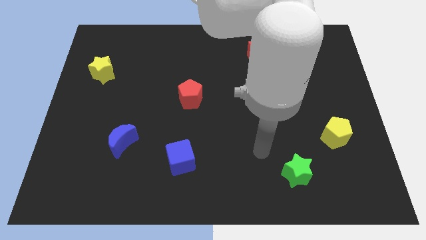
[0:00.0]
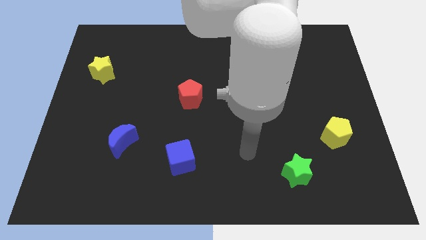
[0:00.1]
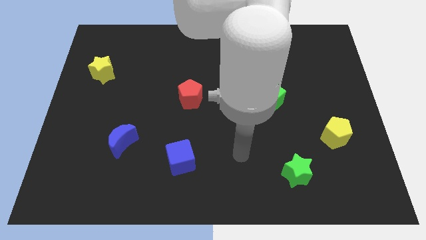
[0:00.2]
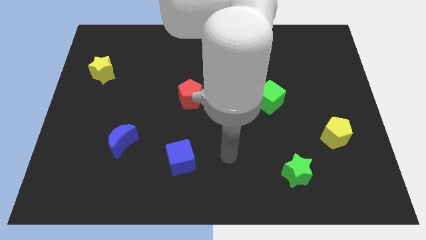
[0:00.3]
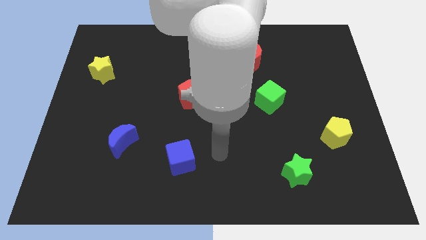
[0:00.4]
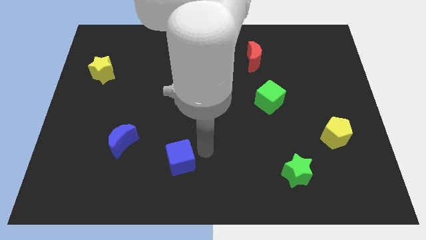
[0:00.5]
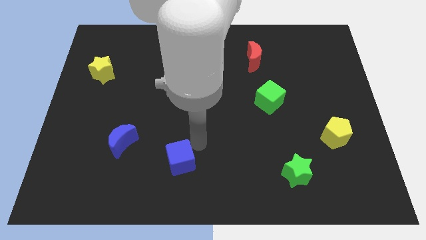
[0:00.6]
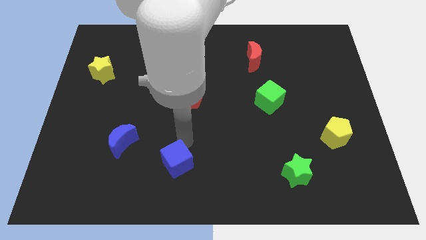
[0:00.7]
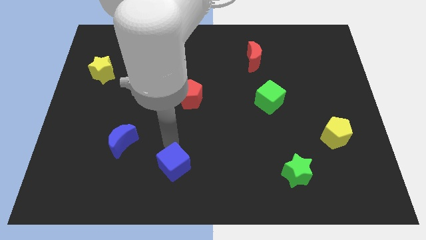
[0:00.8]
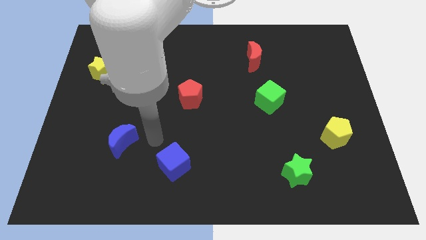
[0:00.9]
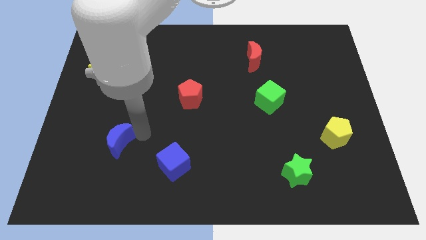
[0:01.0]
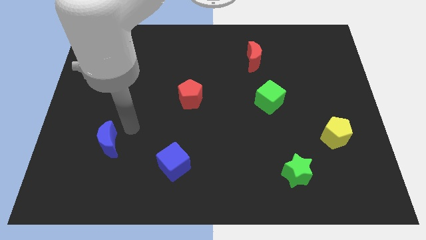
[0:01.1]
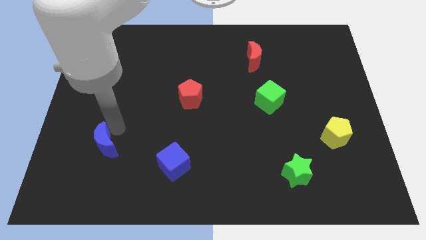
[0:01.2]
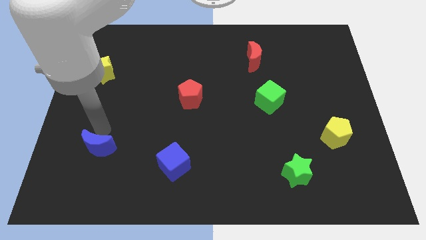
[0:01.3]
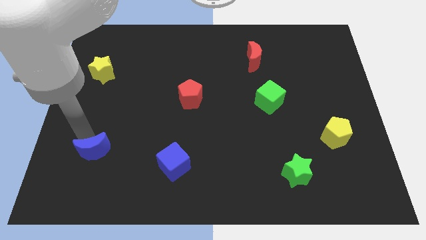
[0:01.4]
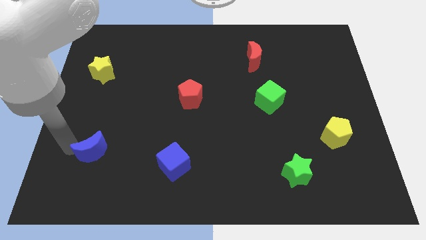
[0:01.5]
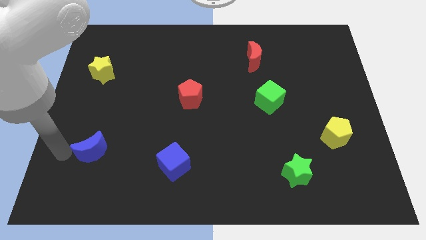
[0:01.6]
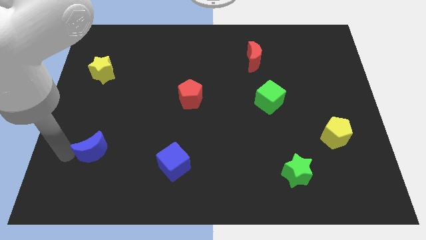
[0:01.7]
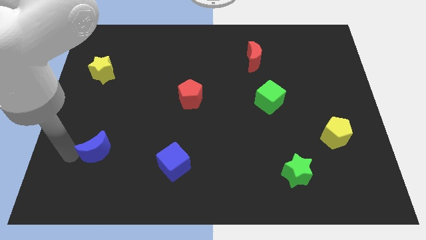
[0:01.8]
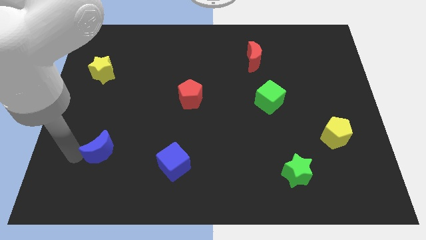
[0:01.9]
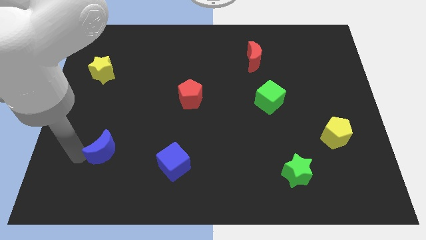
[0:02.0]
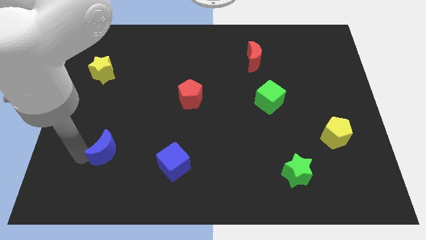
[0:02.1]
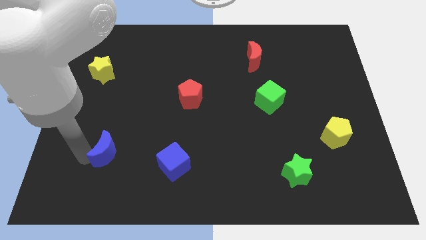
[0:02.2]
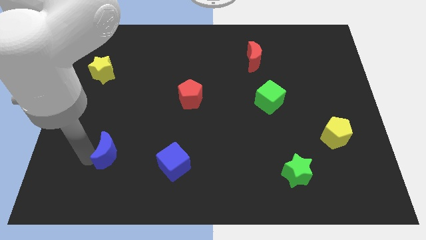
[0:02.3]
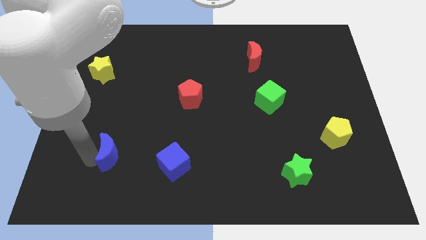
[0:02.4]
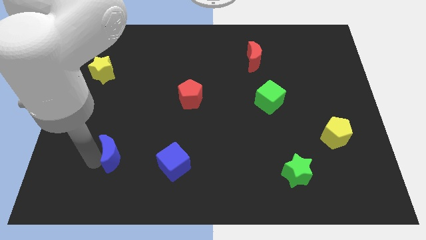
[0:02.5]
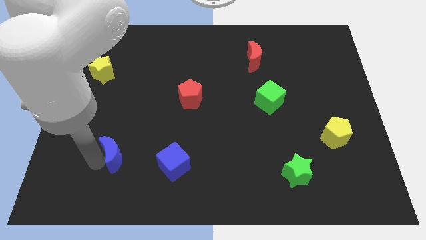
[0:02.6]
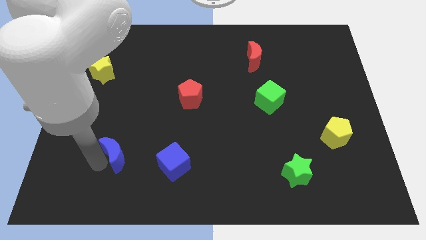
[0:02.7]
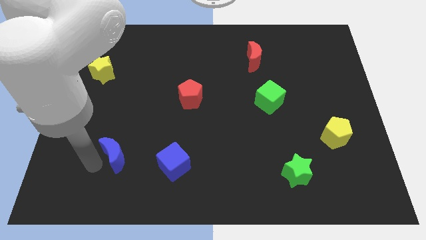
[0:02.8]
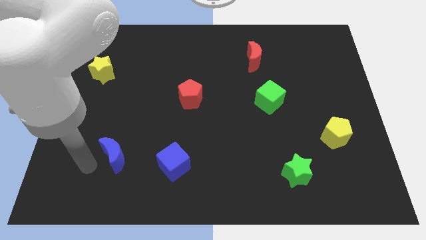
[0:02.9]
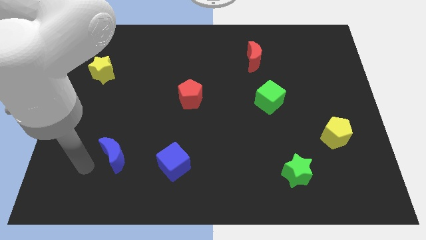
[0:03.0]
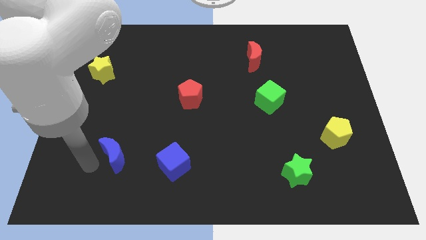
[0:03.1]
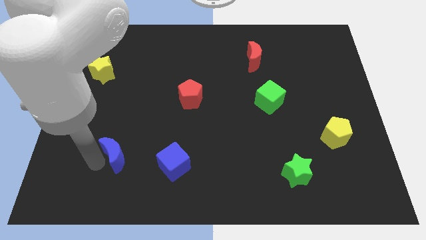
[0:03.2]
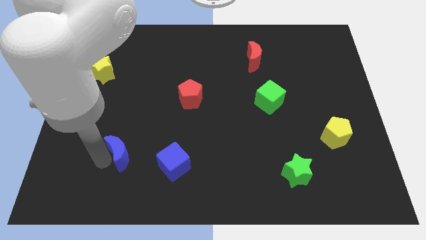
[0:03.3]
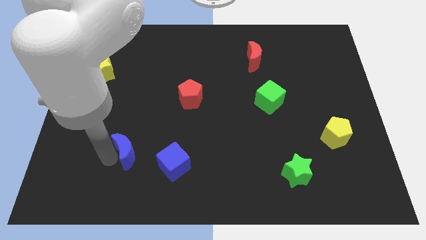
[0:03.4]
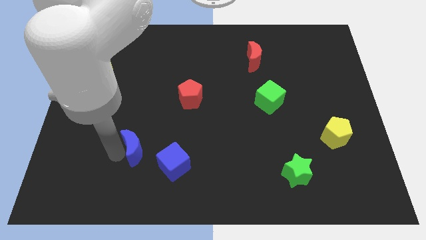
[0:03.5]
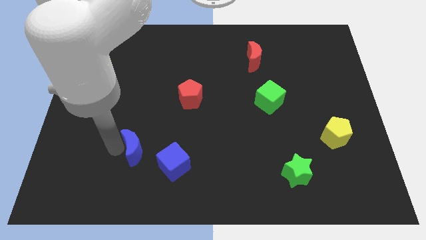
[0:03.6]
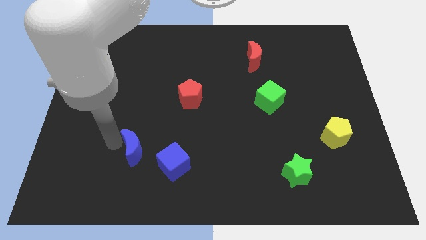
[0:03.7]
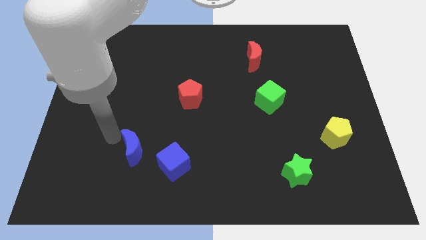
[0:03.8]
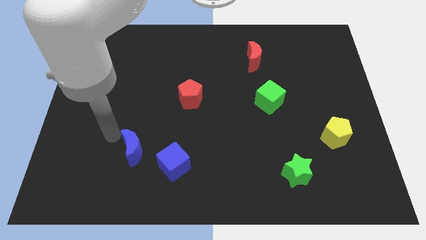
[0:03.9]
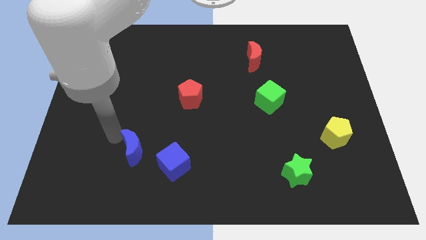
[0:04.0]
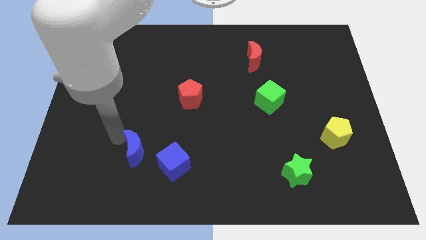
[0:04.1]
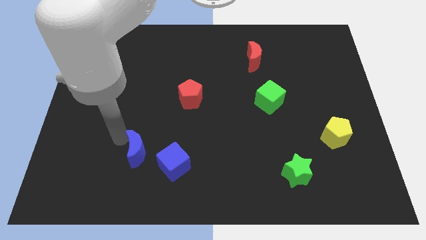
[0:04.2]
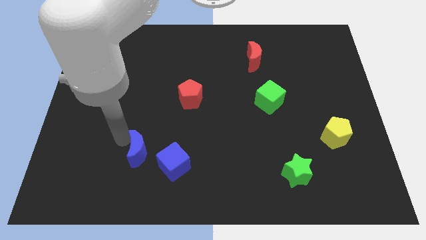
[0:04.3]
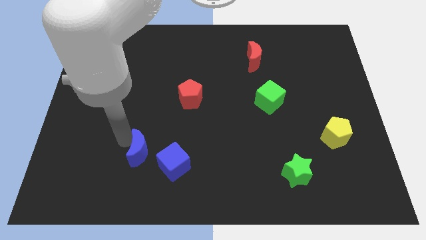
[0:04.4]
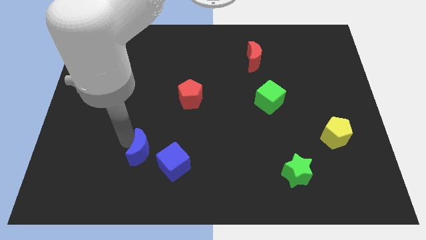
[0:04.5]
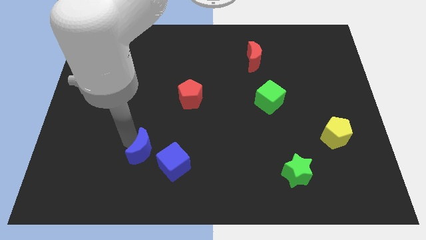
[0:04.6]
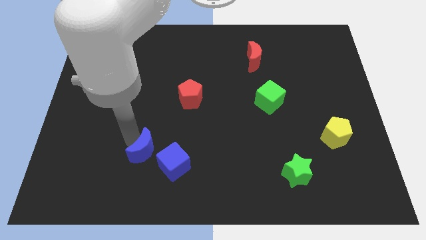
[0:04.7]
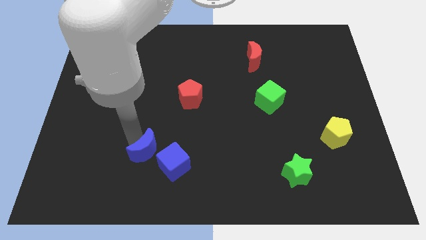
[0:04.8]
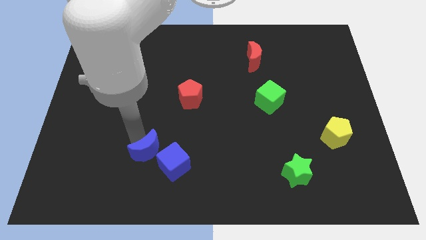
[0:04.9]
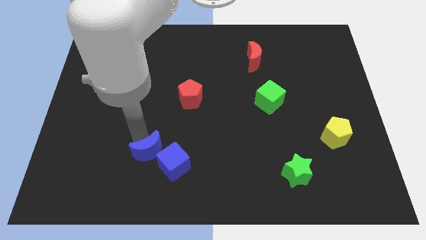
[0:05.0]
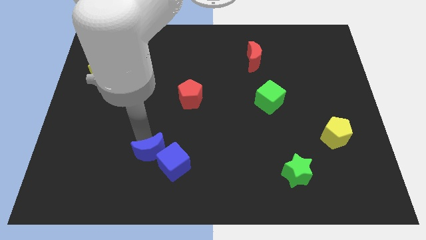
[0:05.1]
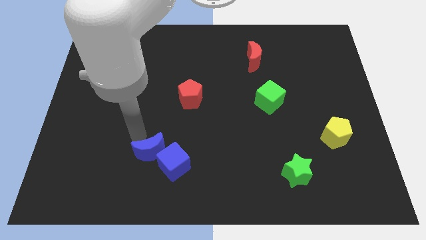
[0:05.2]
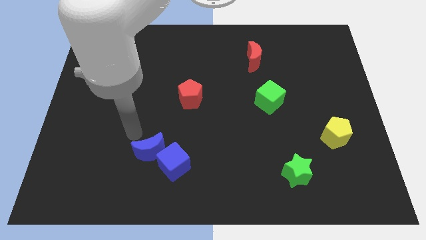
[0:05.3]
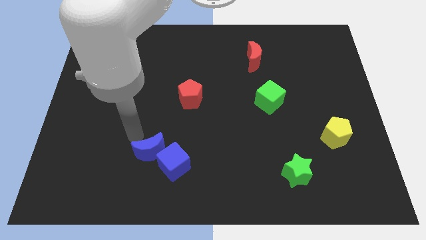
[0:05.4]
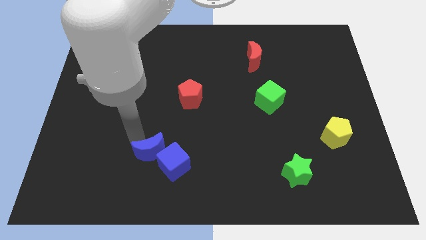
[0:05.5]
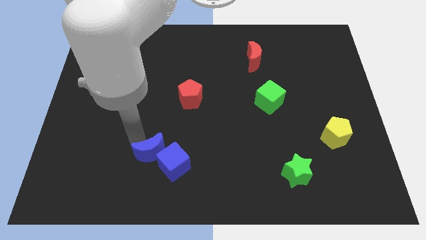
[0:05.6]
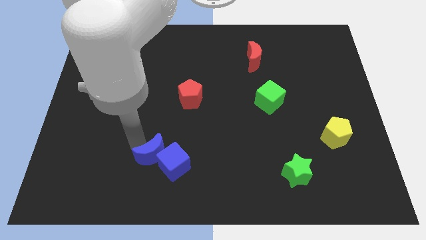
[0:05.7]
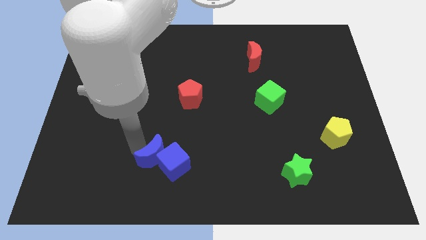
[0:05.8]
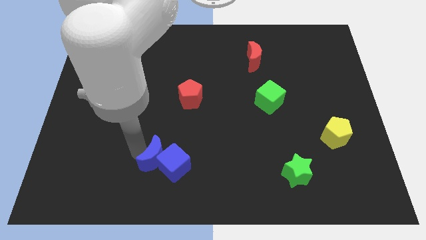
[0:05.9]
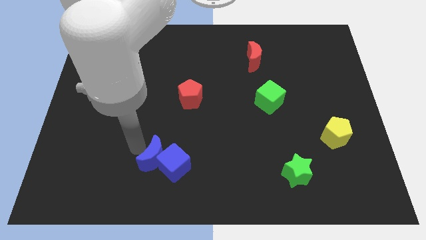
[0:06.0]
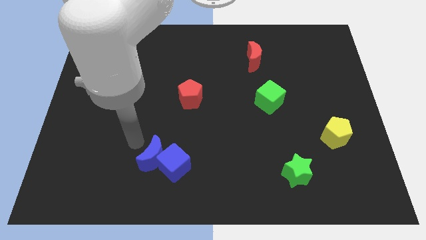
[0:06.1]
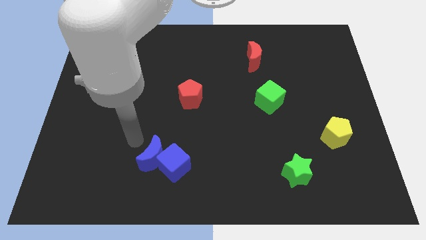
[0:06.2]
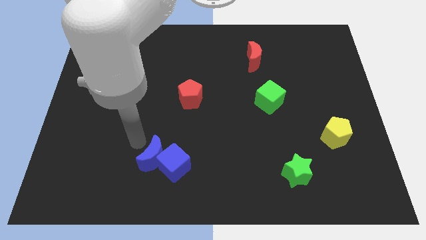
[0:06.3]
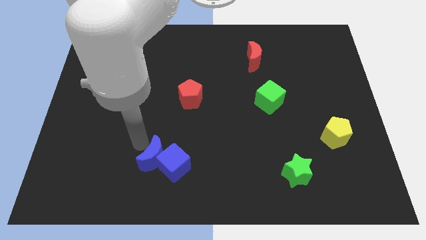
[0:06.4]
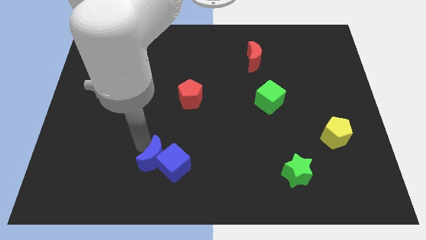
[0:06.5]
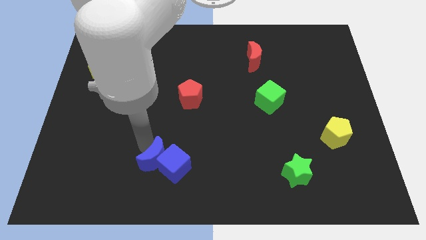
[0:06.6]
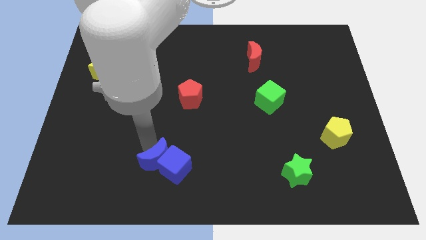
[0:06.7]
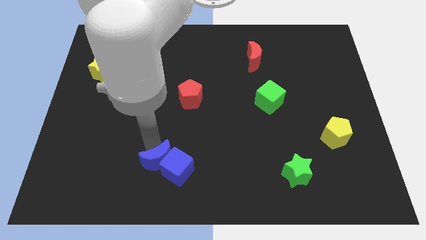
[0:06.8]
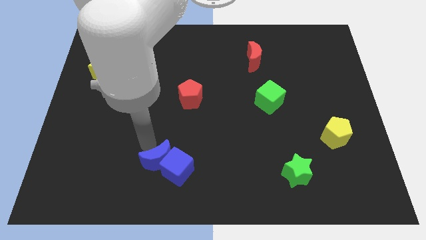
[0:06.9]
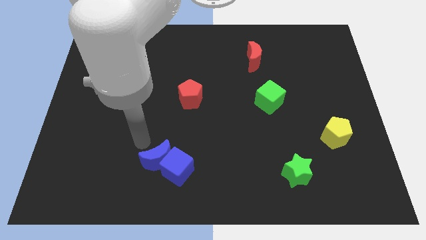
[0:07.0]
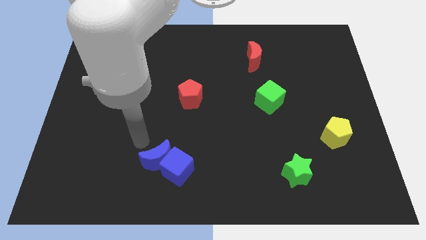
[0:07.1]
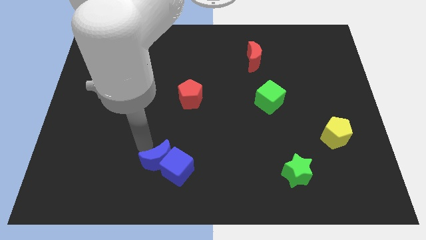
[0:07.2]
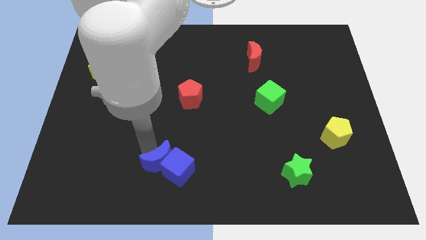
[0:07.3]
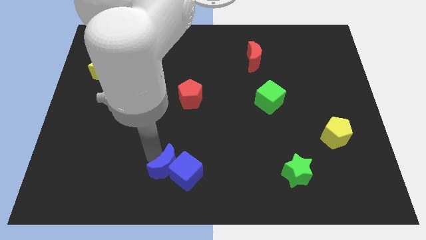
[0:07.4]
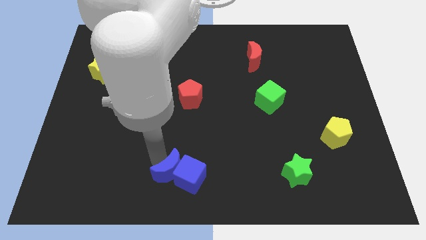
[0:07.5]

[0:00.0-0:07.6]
slide the blue moon to the bottom side

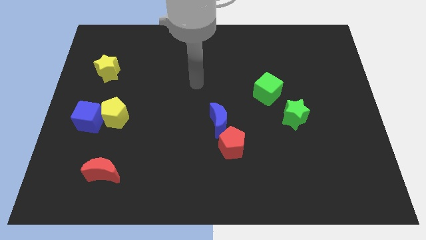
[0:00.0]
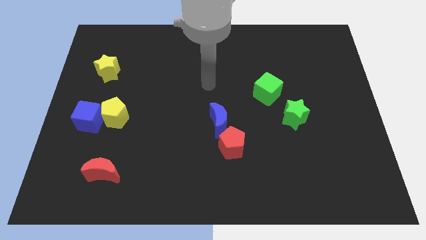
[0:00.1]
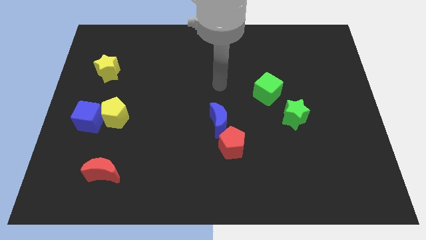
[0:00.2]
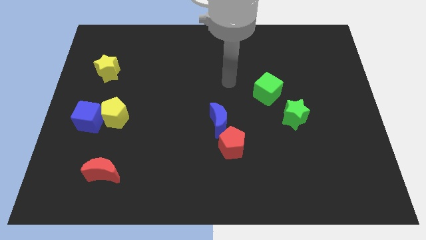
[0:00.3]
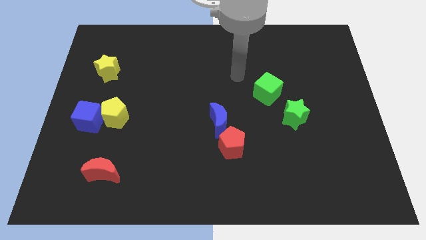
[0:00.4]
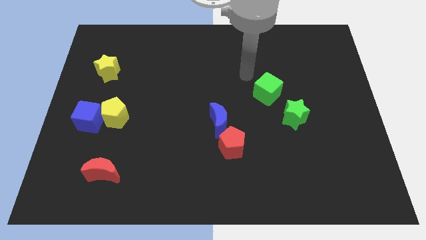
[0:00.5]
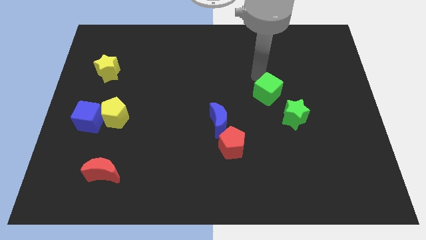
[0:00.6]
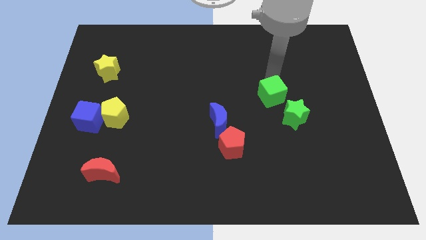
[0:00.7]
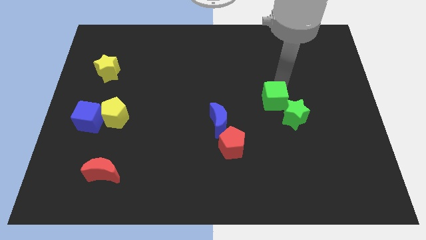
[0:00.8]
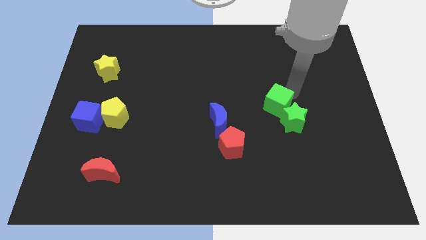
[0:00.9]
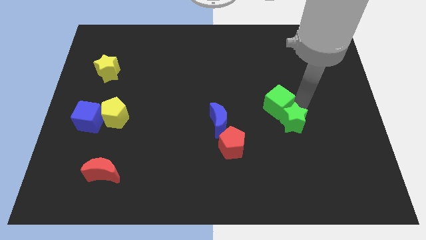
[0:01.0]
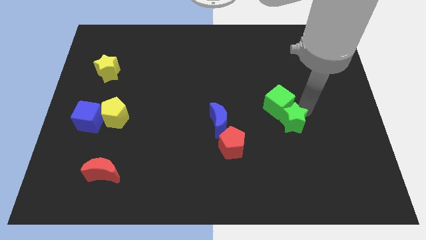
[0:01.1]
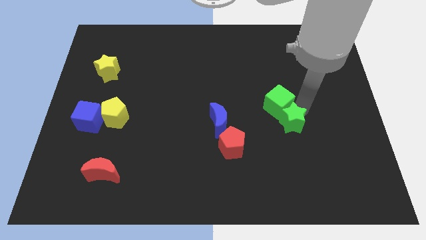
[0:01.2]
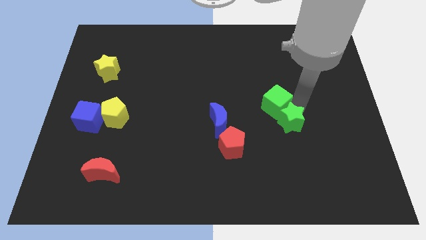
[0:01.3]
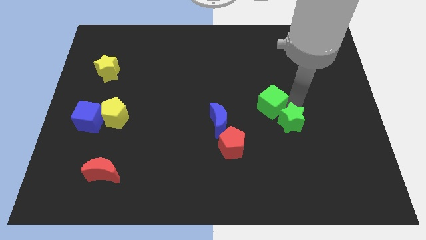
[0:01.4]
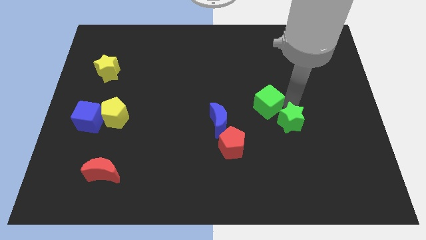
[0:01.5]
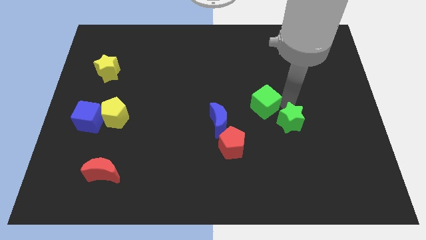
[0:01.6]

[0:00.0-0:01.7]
put the green cube to the center
